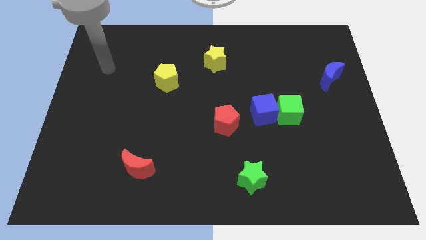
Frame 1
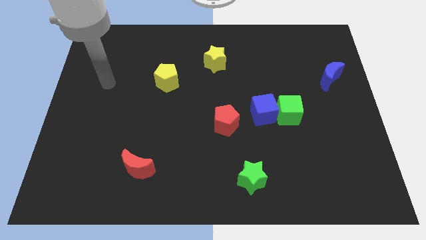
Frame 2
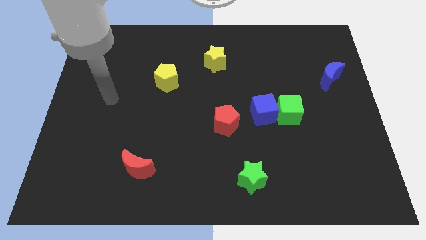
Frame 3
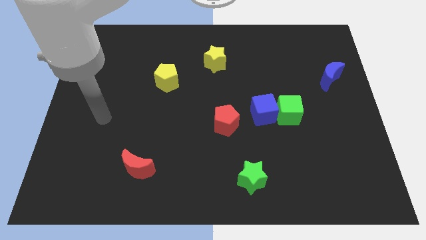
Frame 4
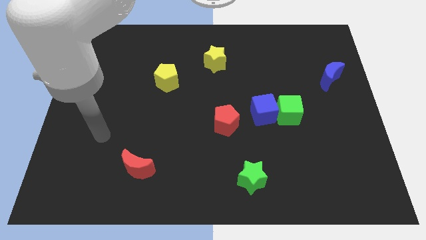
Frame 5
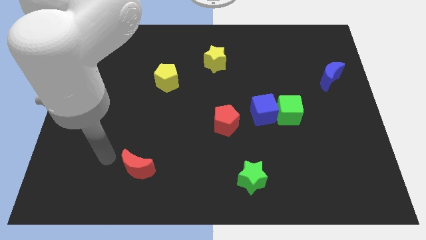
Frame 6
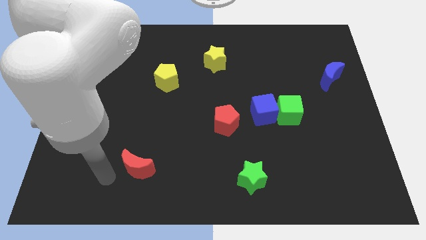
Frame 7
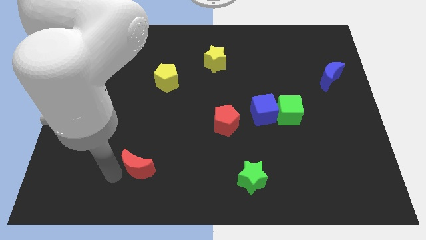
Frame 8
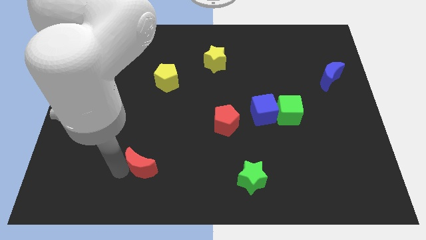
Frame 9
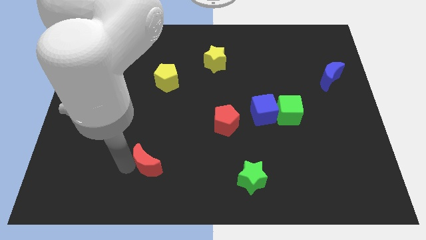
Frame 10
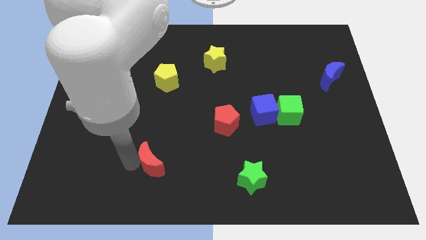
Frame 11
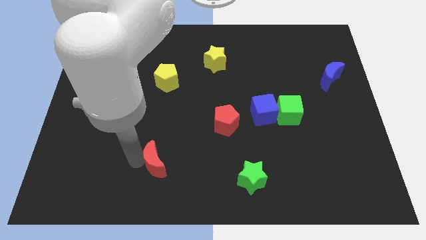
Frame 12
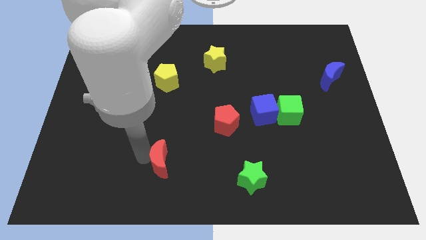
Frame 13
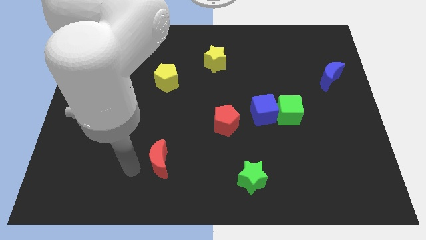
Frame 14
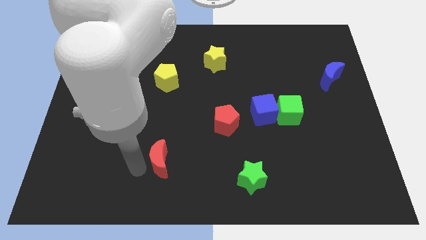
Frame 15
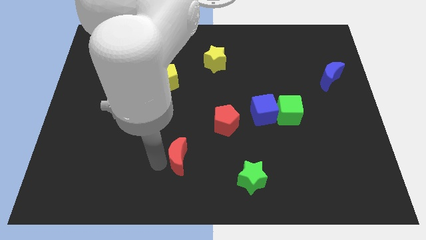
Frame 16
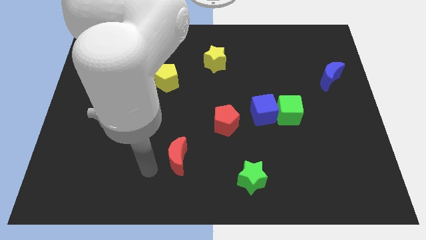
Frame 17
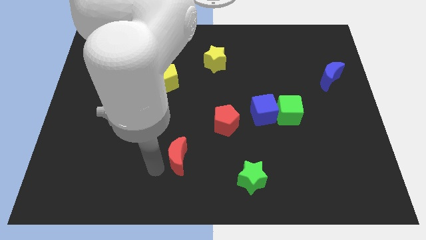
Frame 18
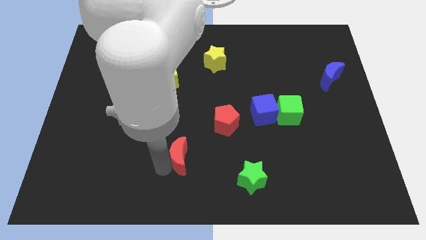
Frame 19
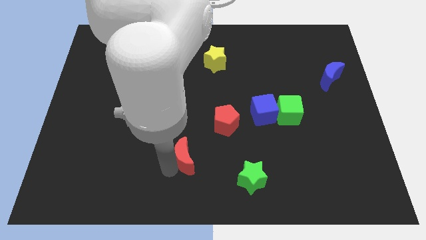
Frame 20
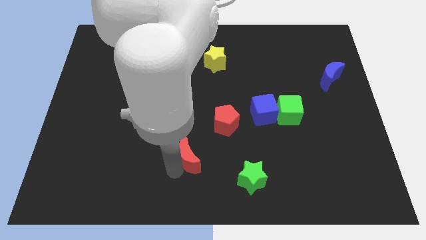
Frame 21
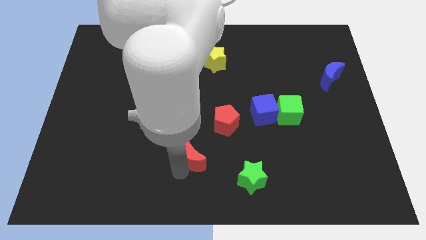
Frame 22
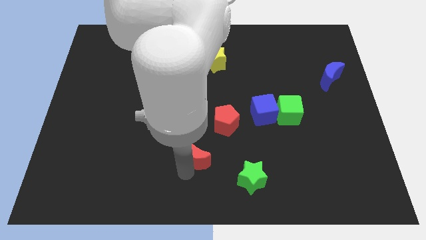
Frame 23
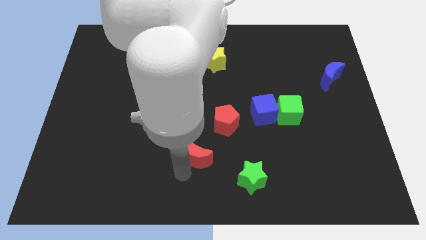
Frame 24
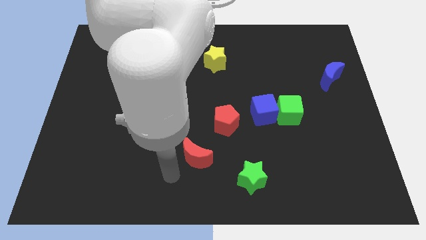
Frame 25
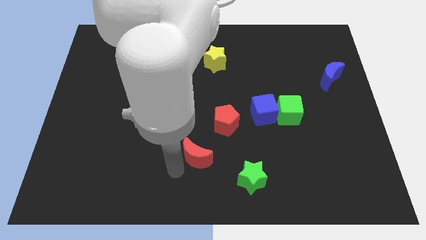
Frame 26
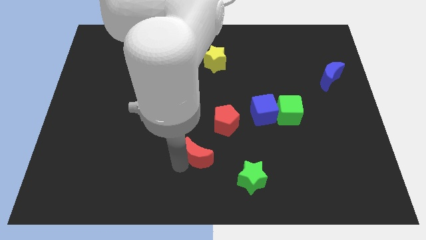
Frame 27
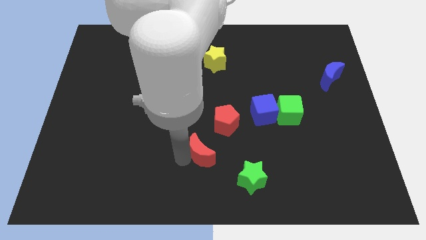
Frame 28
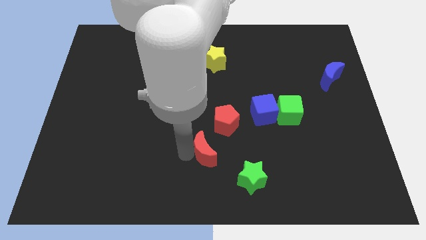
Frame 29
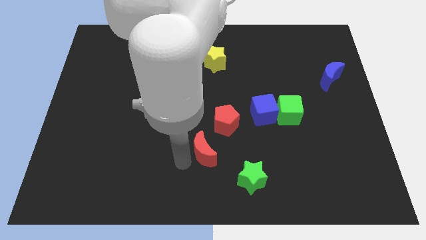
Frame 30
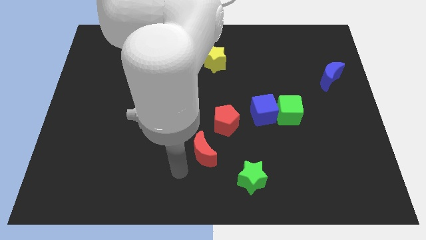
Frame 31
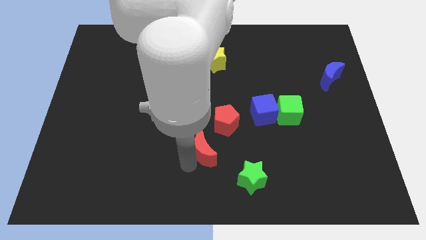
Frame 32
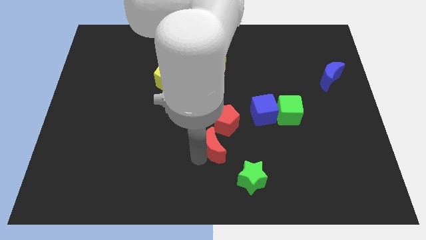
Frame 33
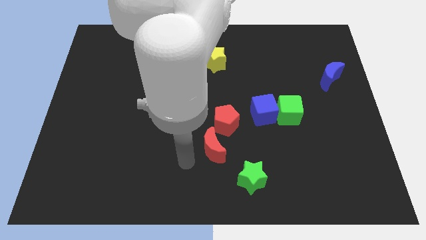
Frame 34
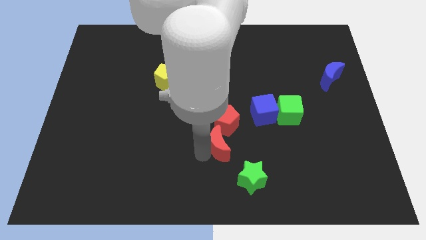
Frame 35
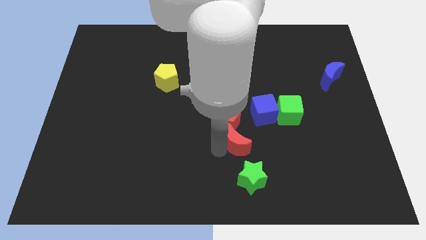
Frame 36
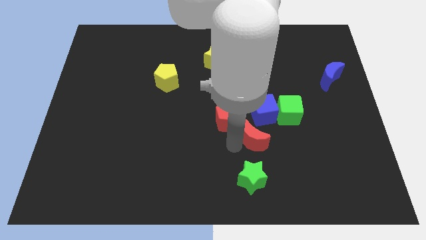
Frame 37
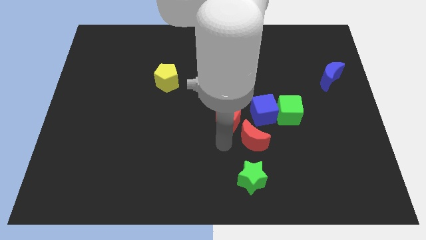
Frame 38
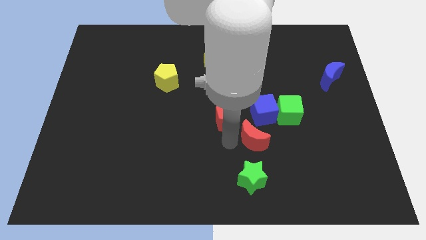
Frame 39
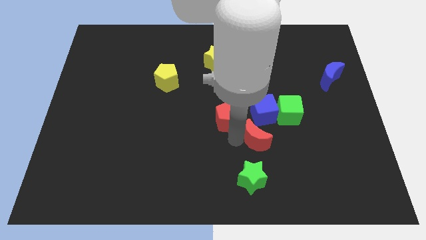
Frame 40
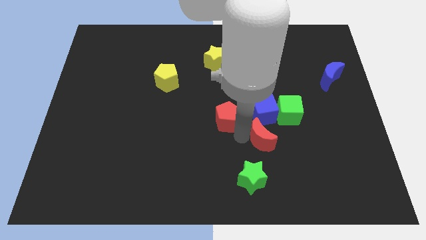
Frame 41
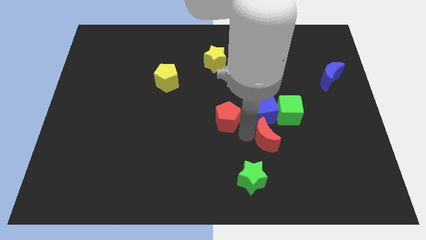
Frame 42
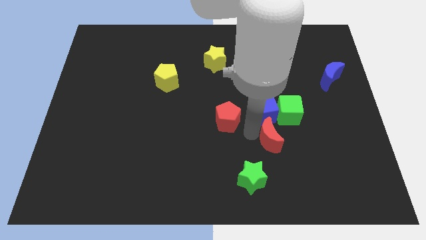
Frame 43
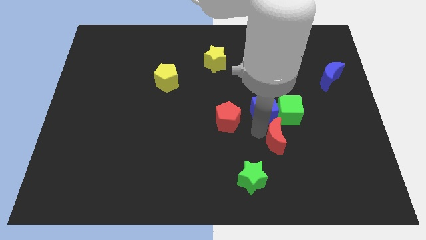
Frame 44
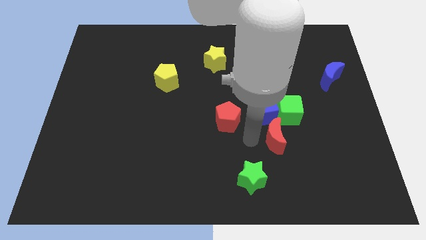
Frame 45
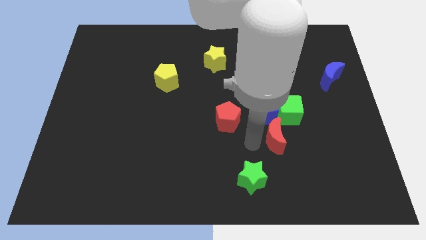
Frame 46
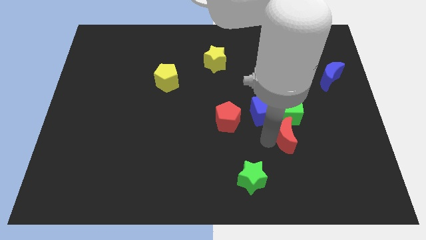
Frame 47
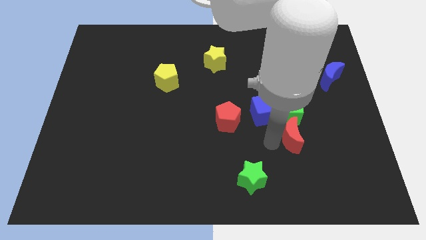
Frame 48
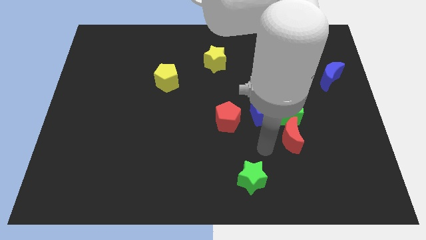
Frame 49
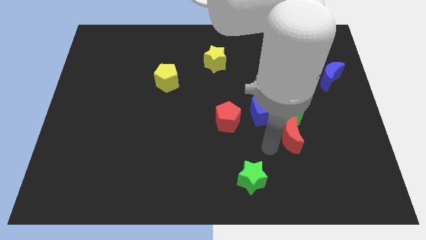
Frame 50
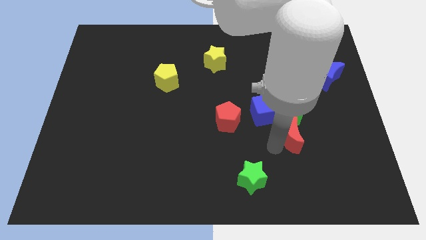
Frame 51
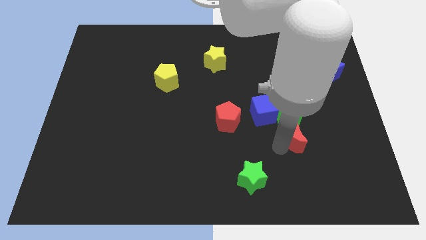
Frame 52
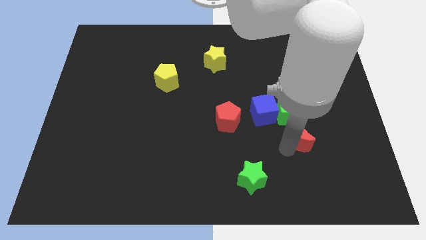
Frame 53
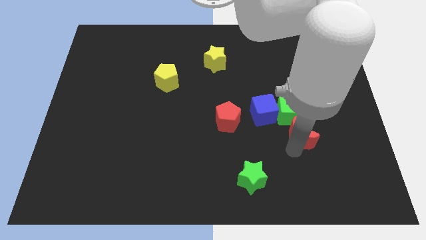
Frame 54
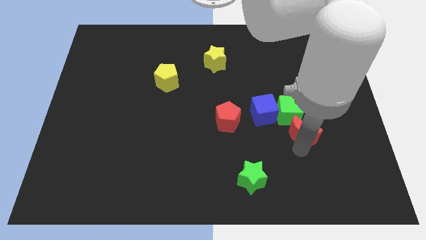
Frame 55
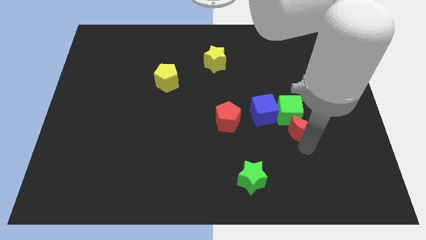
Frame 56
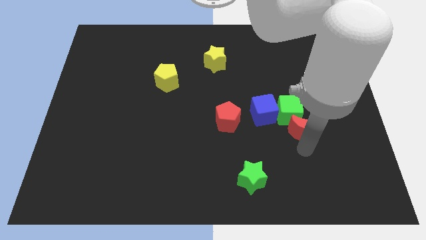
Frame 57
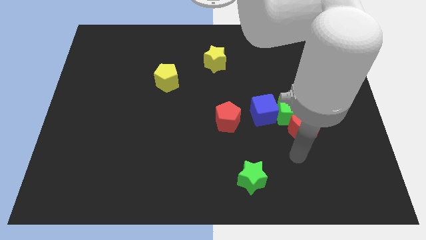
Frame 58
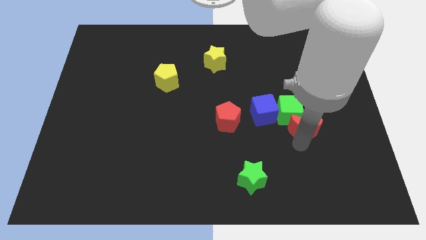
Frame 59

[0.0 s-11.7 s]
push the red moon to the right of the blue cube
